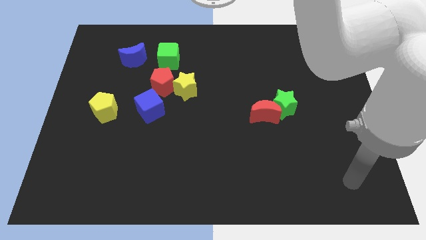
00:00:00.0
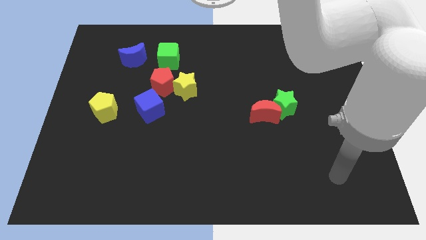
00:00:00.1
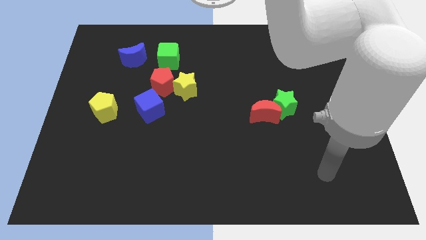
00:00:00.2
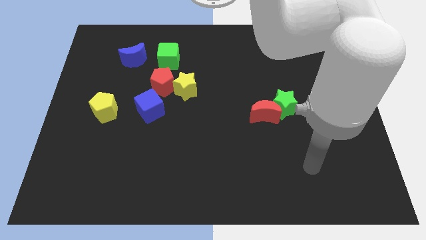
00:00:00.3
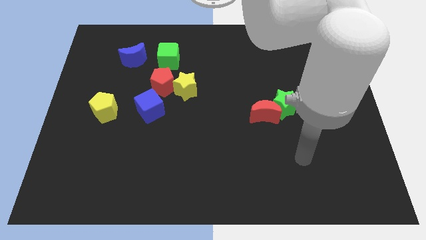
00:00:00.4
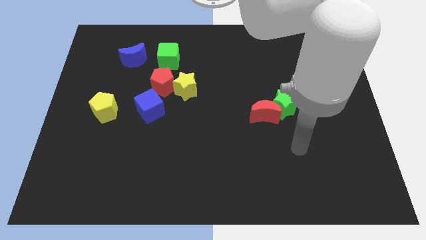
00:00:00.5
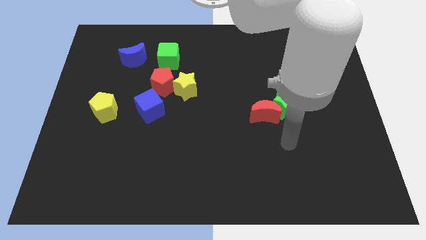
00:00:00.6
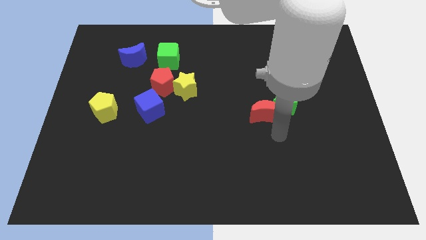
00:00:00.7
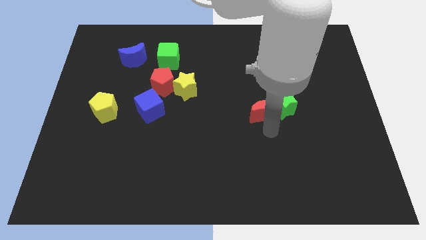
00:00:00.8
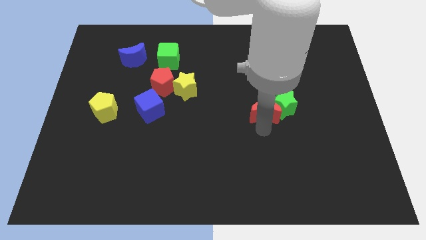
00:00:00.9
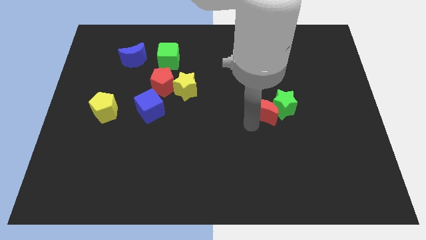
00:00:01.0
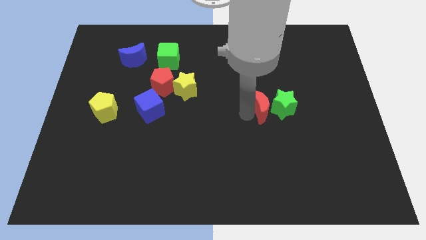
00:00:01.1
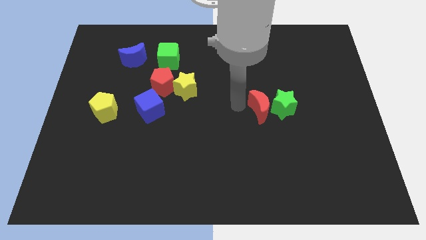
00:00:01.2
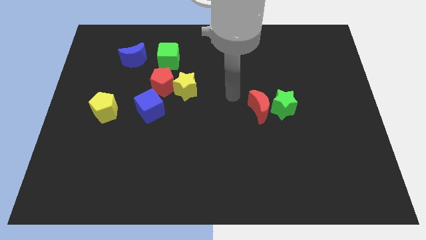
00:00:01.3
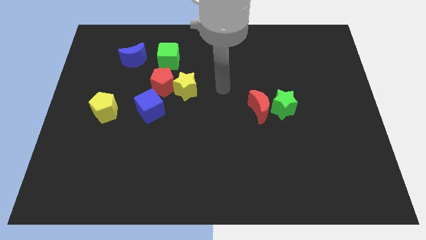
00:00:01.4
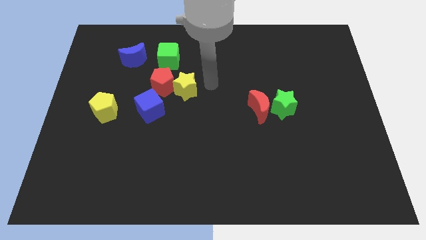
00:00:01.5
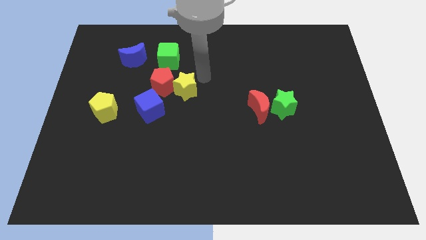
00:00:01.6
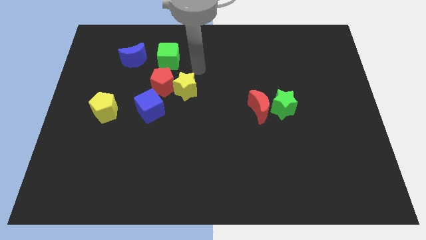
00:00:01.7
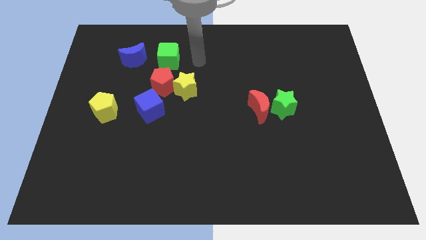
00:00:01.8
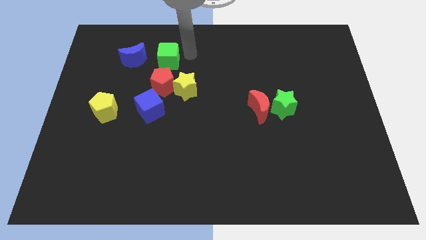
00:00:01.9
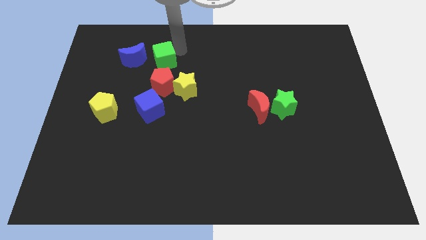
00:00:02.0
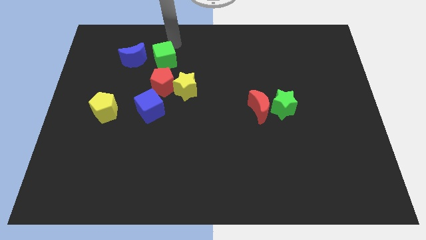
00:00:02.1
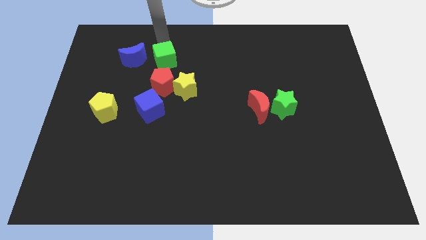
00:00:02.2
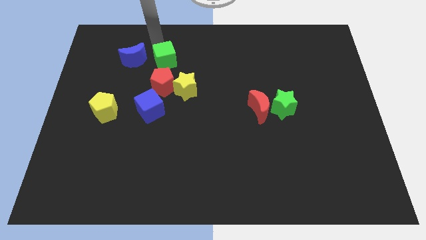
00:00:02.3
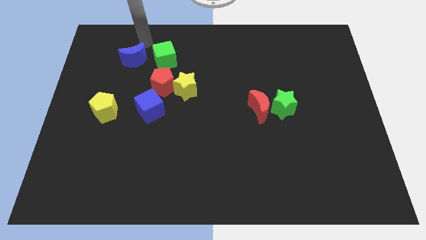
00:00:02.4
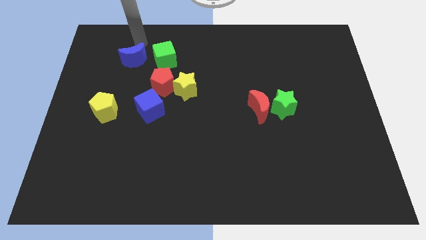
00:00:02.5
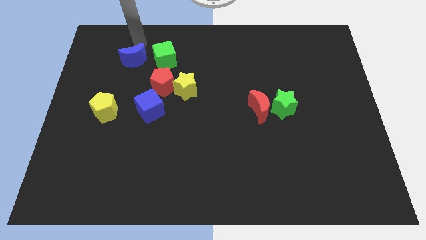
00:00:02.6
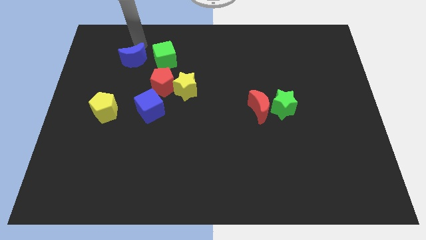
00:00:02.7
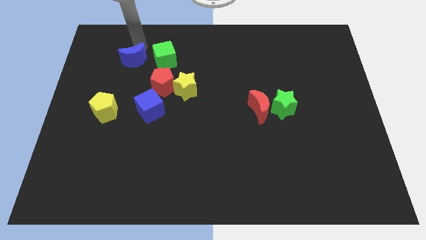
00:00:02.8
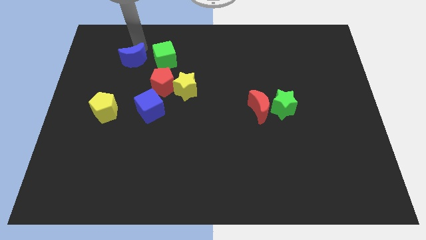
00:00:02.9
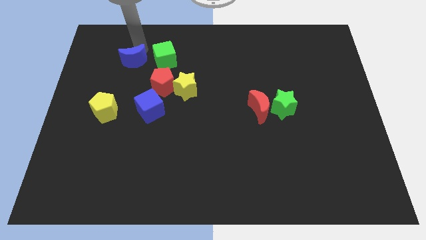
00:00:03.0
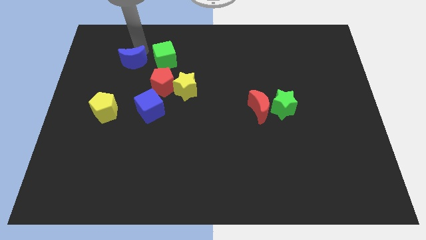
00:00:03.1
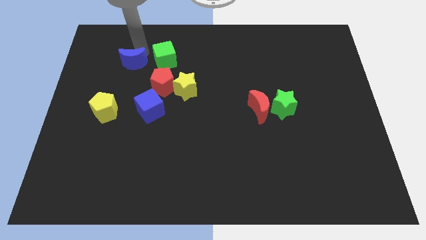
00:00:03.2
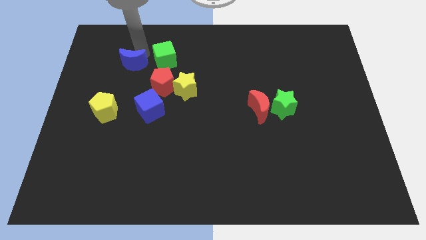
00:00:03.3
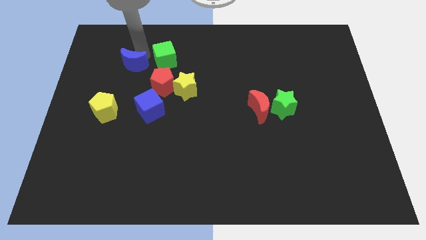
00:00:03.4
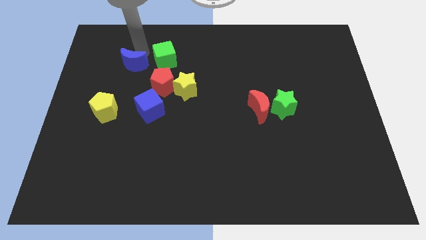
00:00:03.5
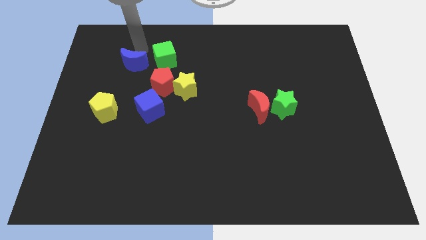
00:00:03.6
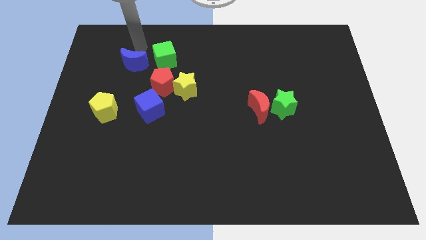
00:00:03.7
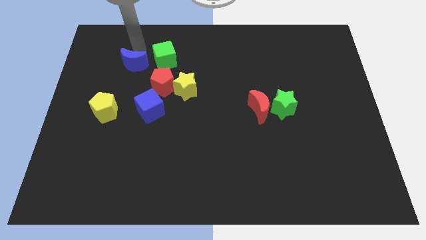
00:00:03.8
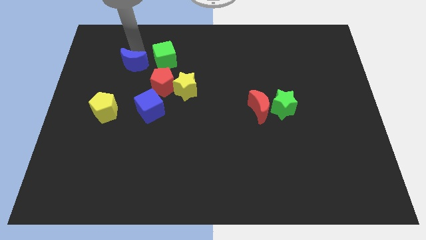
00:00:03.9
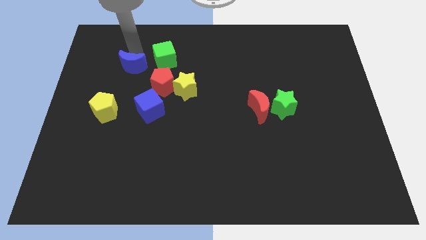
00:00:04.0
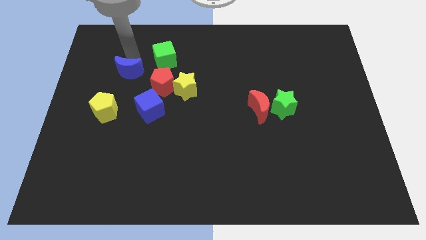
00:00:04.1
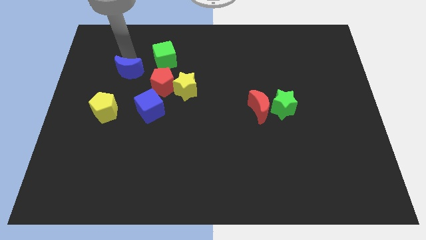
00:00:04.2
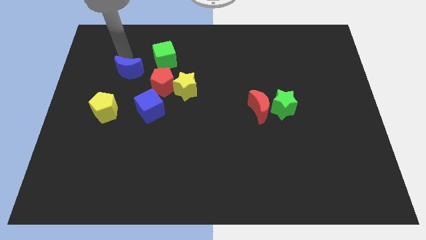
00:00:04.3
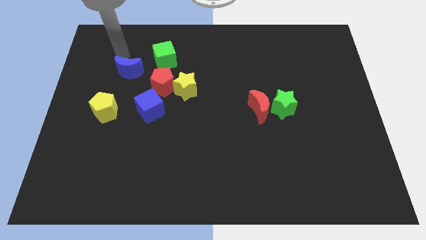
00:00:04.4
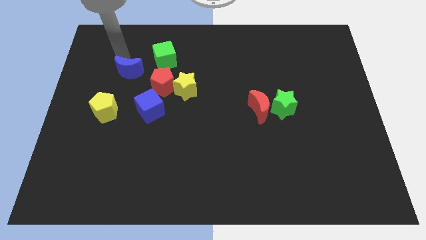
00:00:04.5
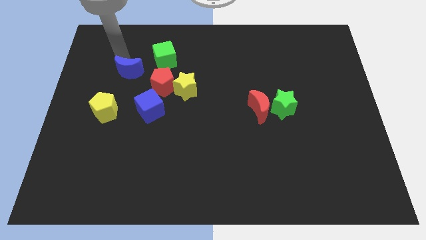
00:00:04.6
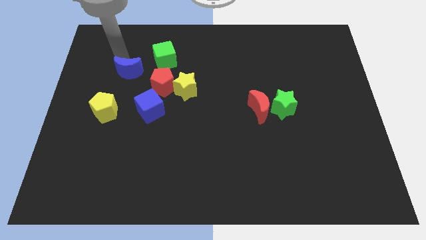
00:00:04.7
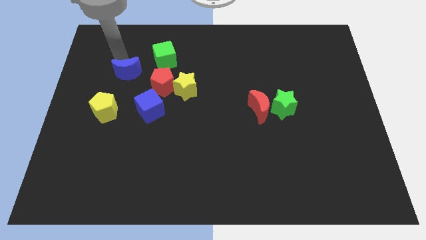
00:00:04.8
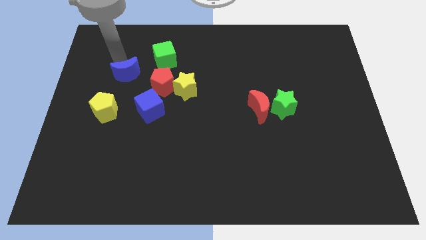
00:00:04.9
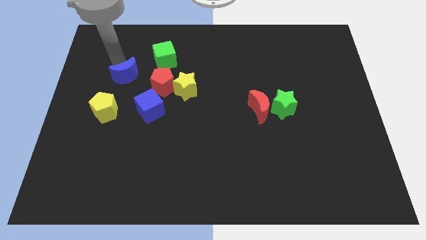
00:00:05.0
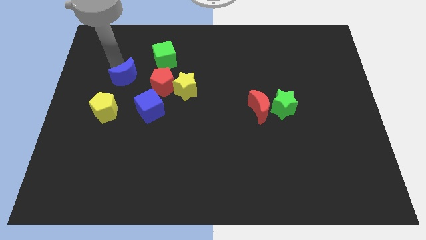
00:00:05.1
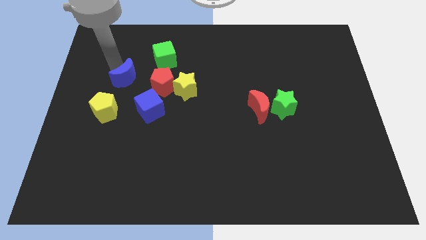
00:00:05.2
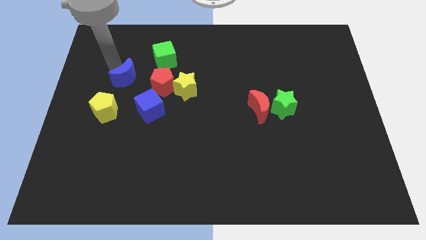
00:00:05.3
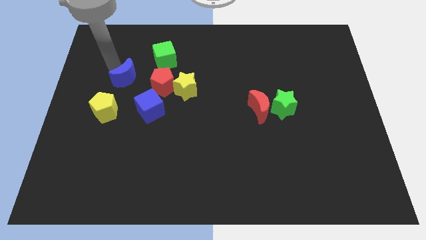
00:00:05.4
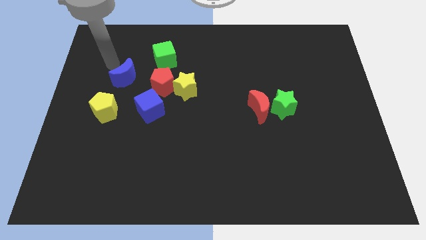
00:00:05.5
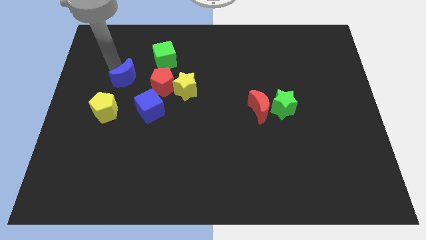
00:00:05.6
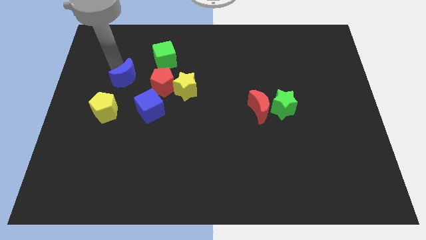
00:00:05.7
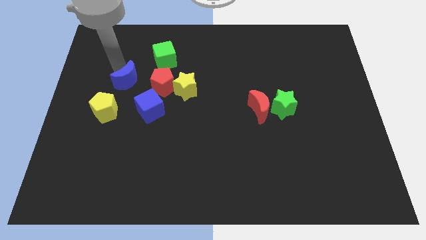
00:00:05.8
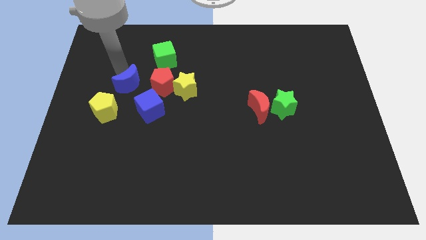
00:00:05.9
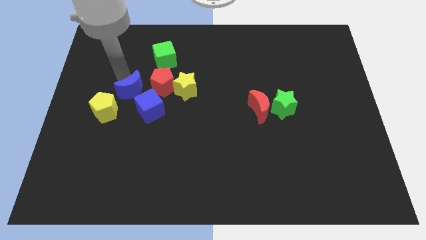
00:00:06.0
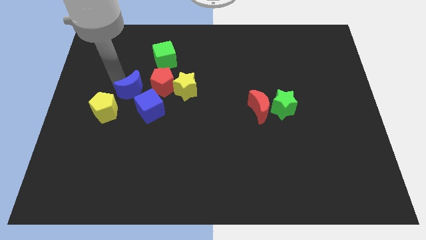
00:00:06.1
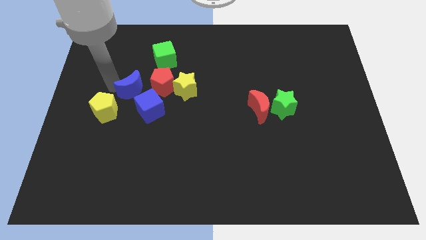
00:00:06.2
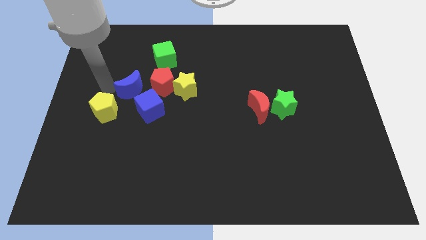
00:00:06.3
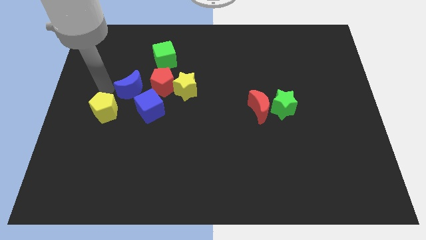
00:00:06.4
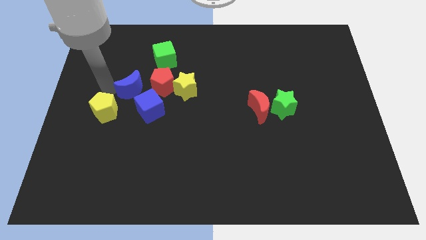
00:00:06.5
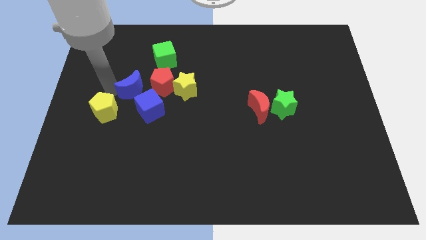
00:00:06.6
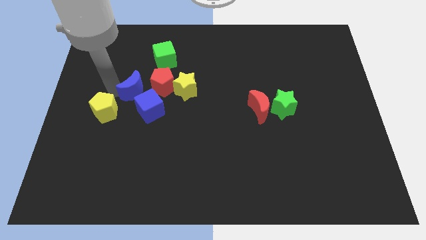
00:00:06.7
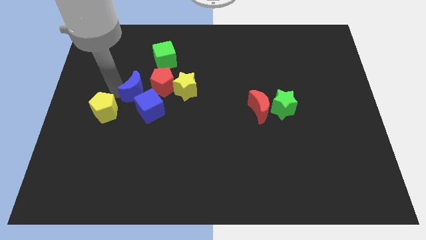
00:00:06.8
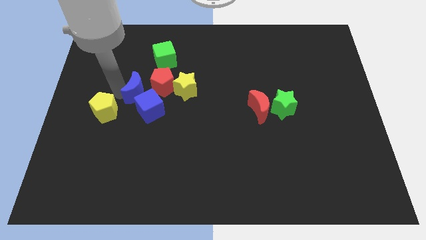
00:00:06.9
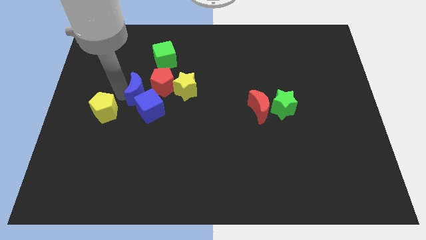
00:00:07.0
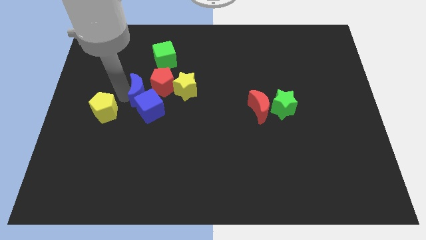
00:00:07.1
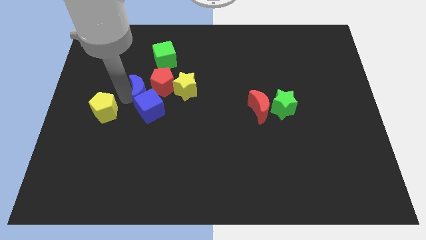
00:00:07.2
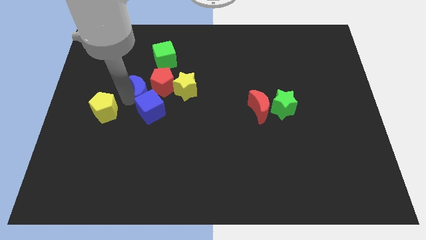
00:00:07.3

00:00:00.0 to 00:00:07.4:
put the blue moon to the bottom side of the green cube
